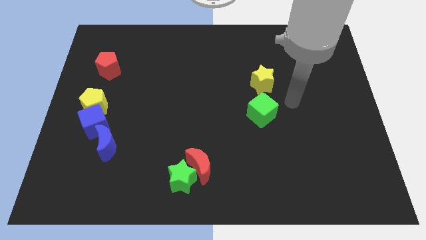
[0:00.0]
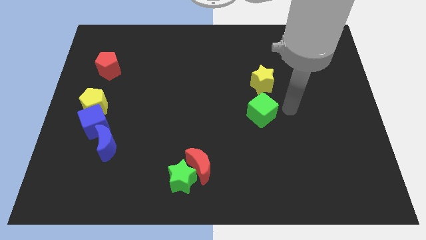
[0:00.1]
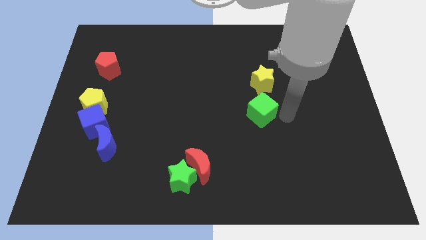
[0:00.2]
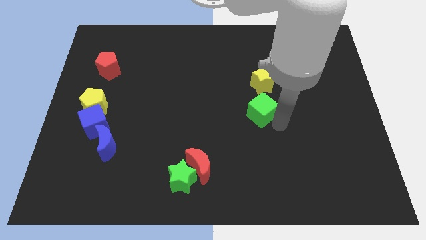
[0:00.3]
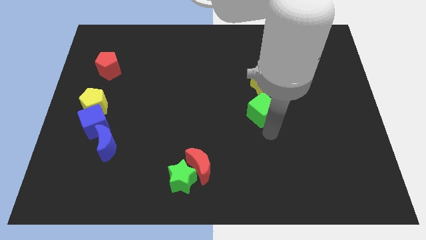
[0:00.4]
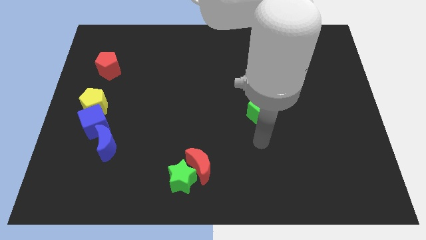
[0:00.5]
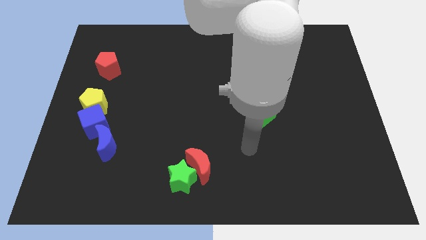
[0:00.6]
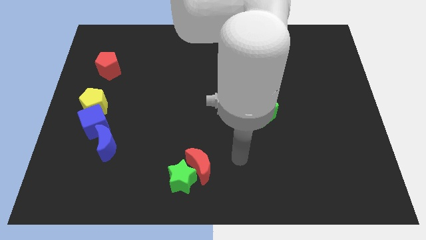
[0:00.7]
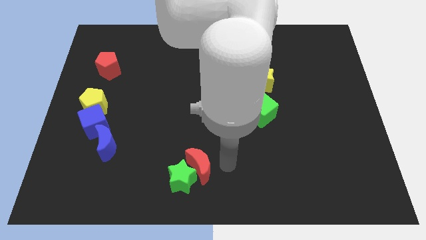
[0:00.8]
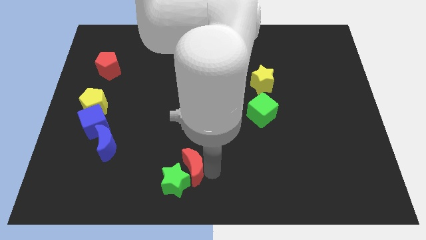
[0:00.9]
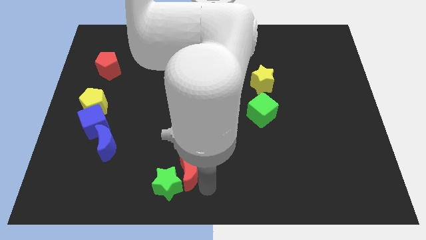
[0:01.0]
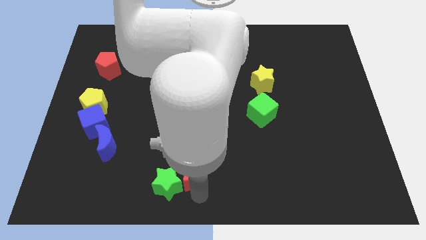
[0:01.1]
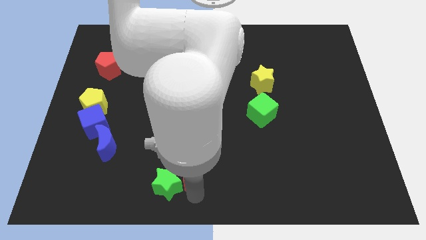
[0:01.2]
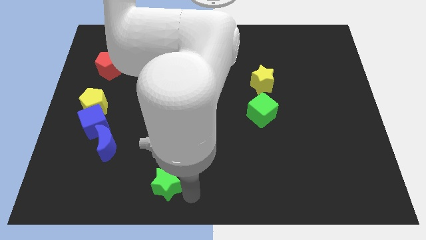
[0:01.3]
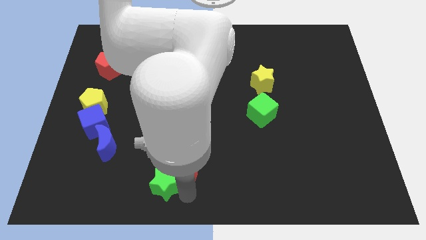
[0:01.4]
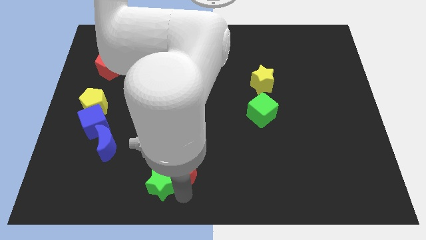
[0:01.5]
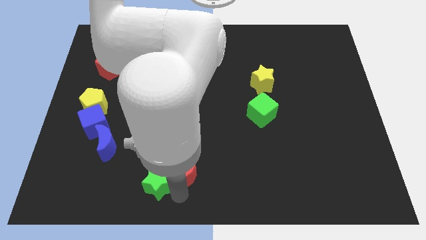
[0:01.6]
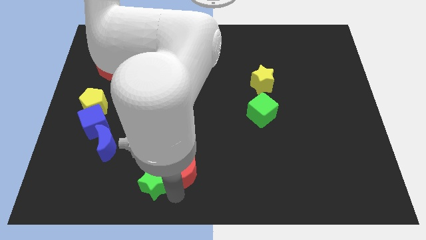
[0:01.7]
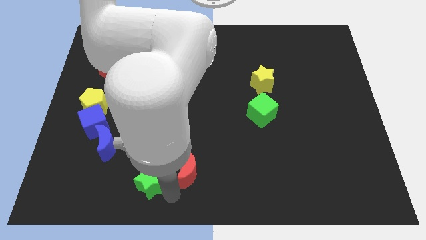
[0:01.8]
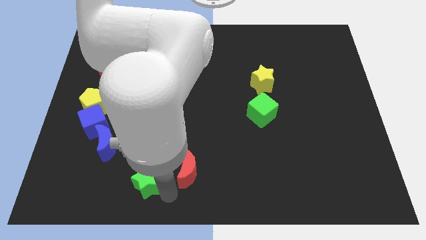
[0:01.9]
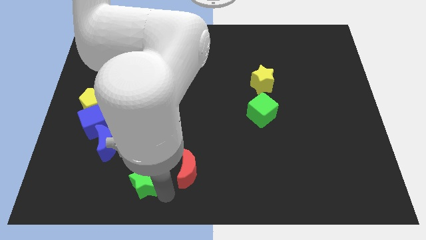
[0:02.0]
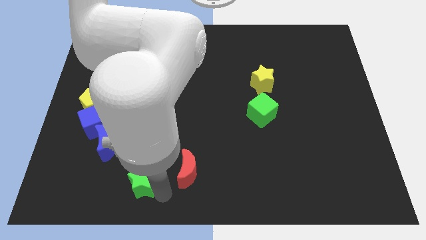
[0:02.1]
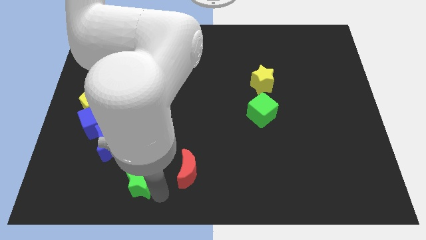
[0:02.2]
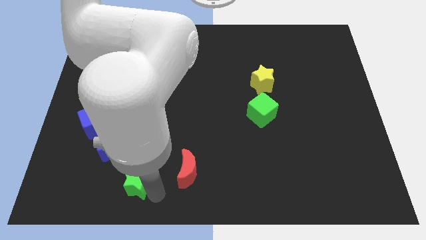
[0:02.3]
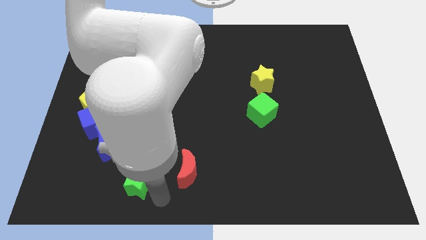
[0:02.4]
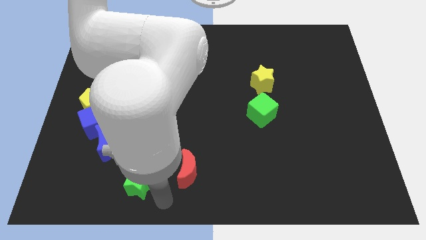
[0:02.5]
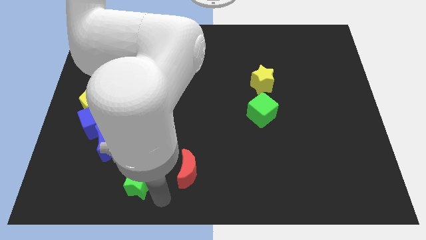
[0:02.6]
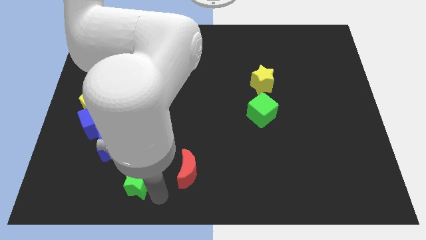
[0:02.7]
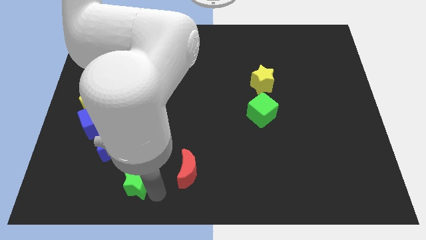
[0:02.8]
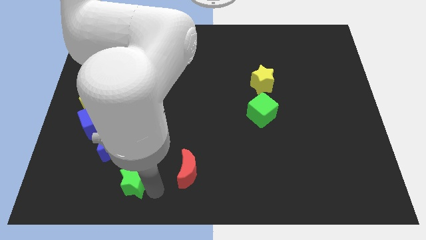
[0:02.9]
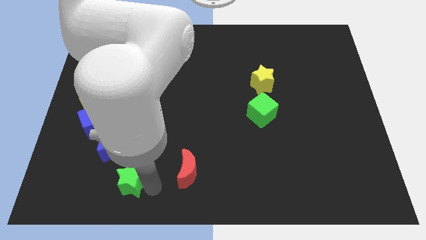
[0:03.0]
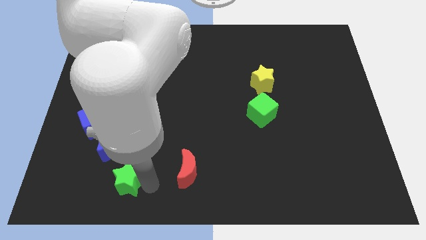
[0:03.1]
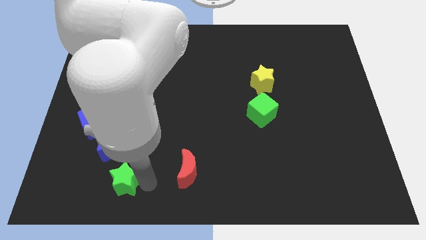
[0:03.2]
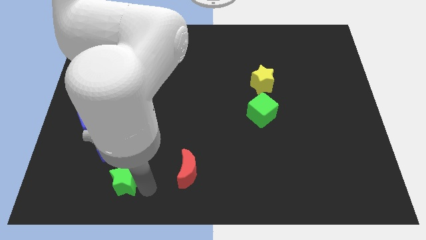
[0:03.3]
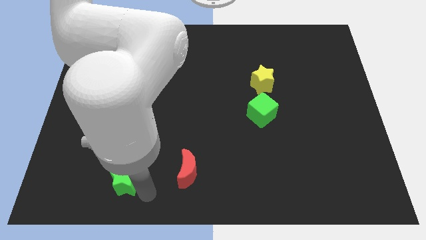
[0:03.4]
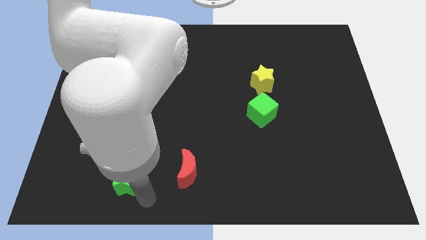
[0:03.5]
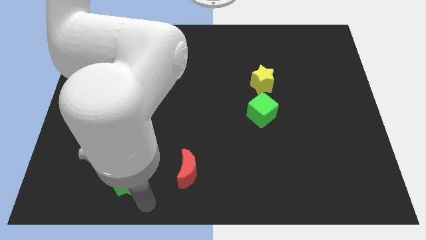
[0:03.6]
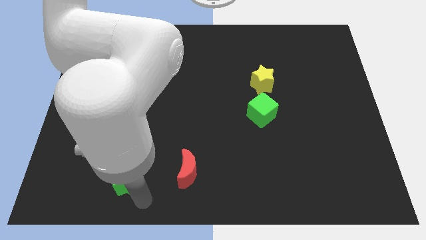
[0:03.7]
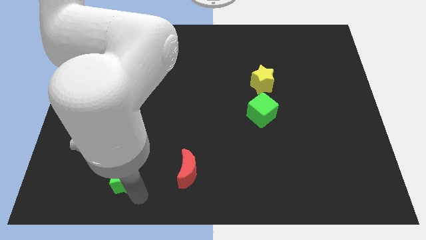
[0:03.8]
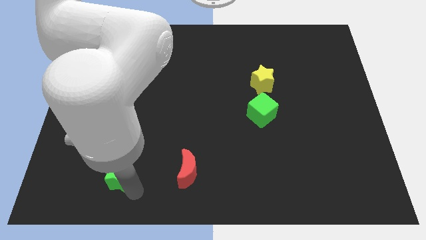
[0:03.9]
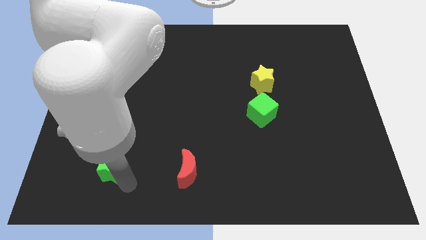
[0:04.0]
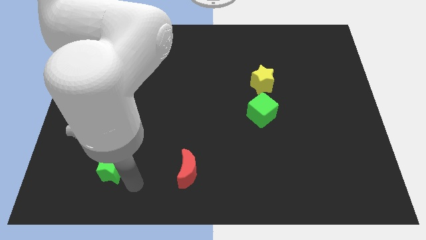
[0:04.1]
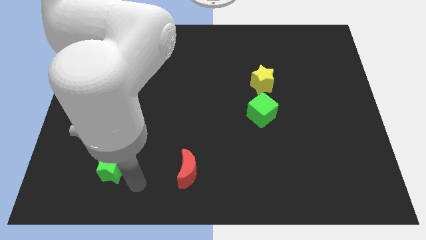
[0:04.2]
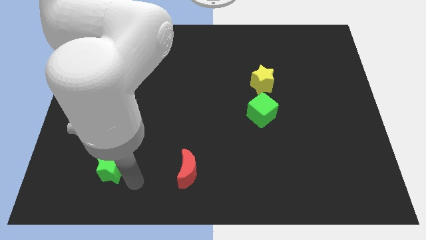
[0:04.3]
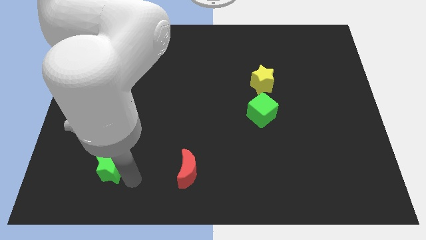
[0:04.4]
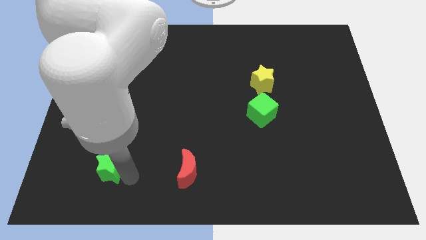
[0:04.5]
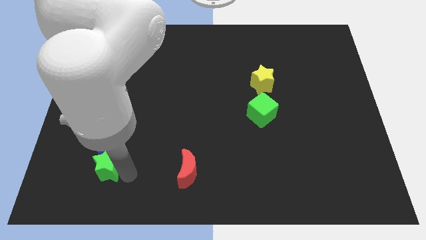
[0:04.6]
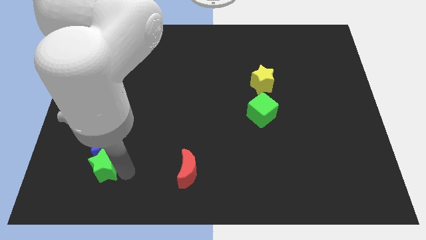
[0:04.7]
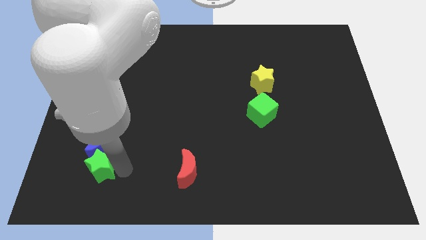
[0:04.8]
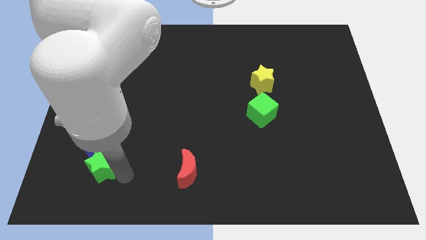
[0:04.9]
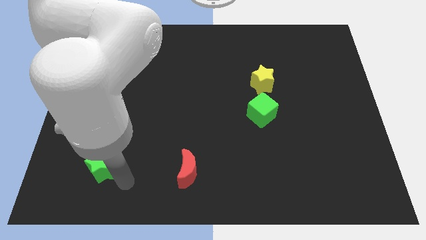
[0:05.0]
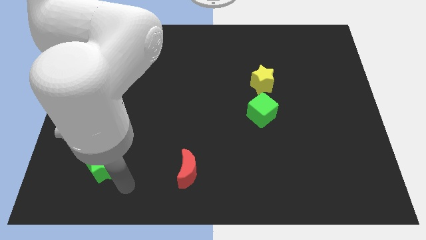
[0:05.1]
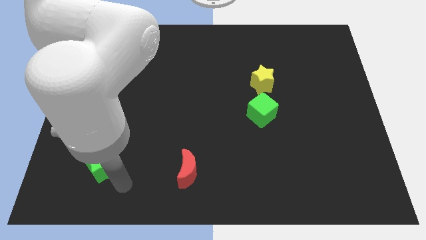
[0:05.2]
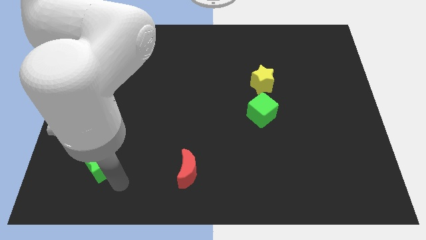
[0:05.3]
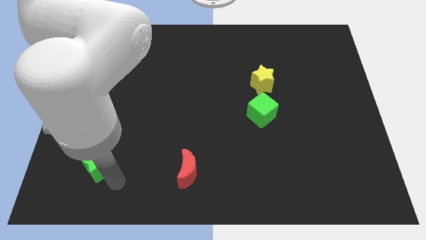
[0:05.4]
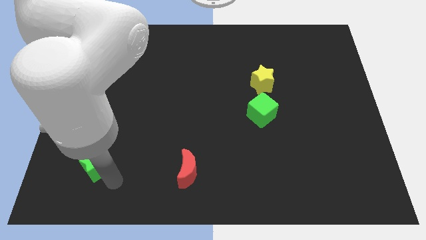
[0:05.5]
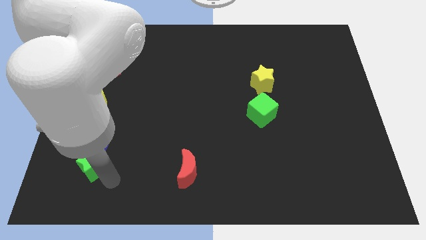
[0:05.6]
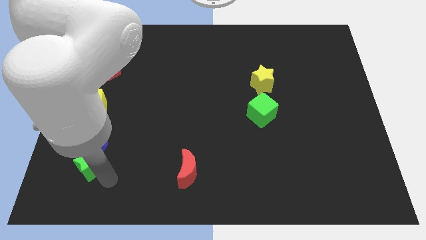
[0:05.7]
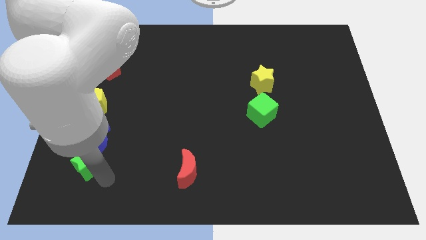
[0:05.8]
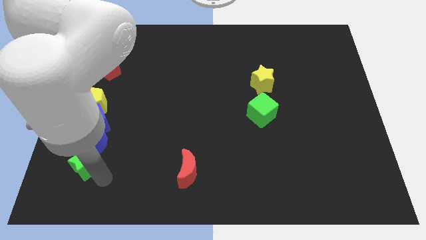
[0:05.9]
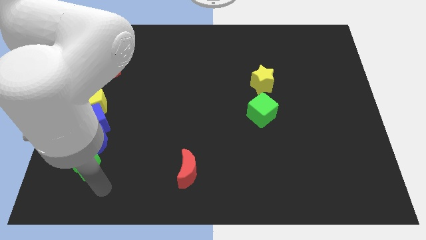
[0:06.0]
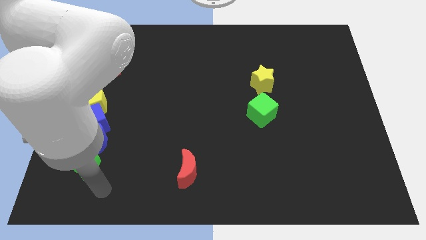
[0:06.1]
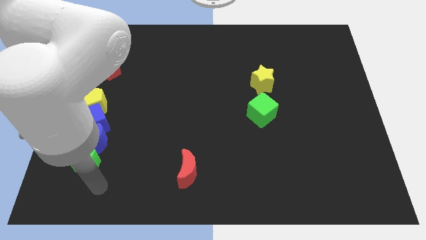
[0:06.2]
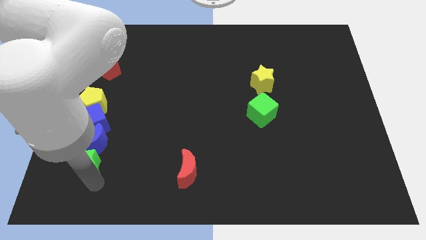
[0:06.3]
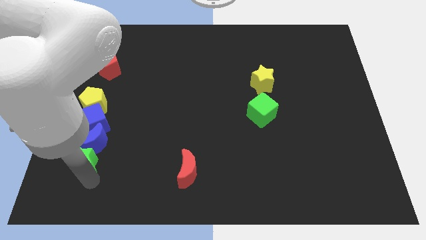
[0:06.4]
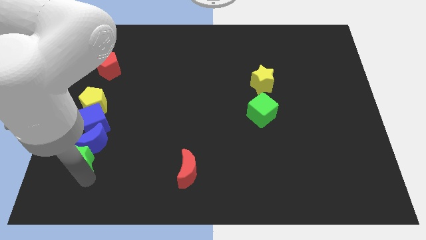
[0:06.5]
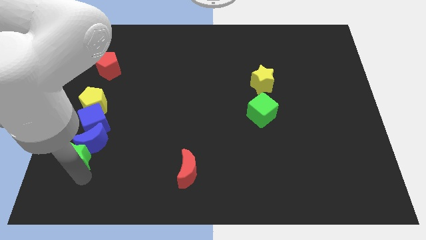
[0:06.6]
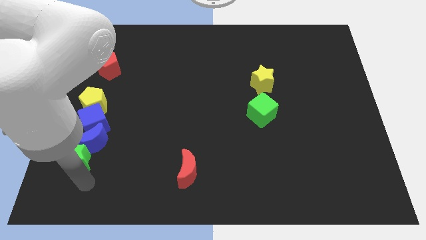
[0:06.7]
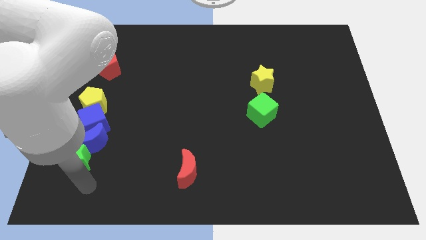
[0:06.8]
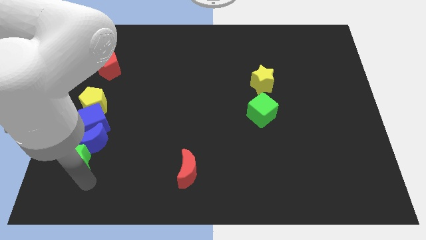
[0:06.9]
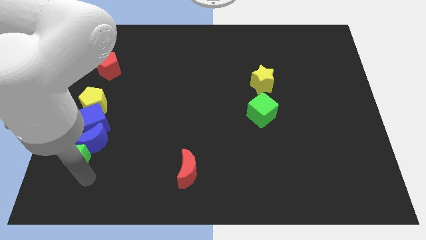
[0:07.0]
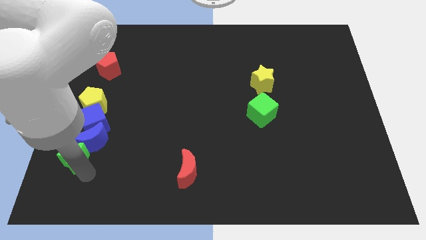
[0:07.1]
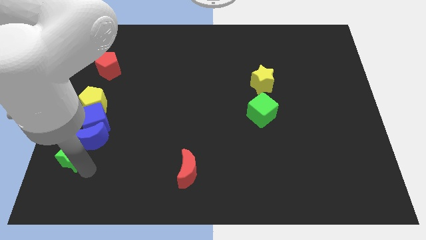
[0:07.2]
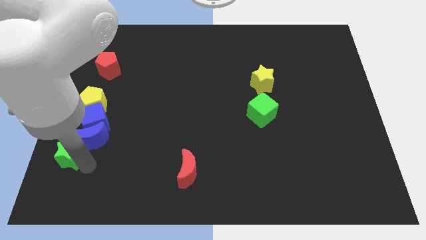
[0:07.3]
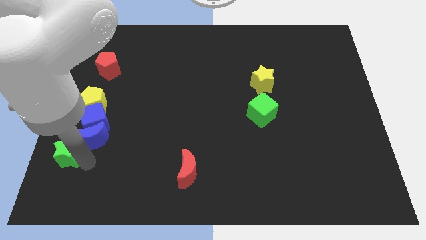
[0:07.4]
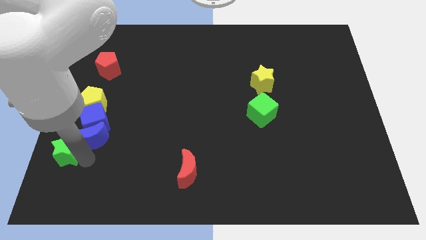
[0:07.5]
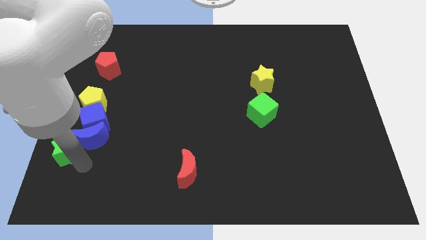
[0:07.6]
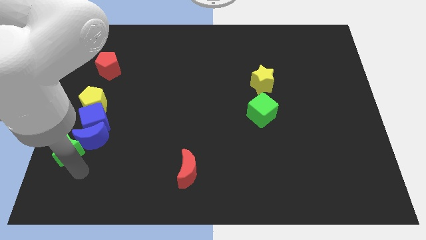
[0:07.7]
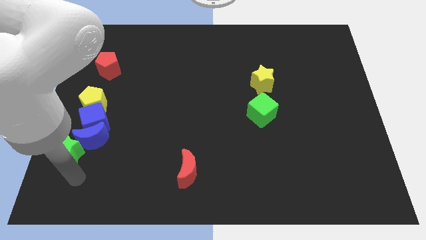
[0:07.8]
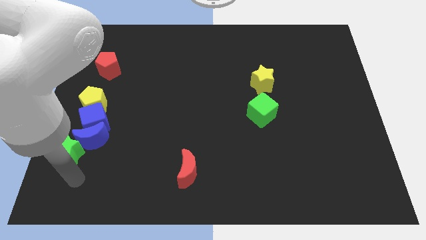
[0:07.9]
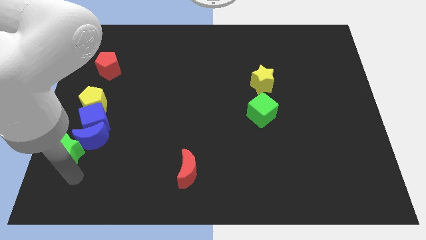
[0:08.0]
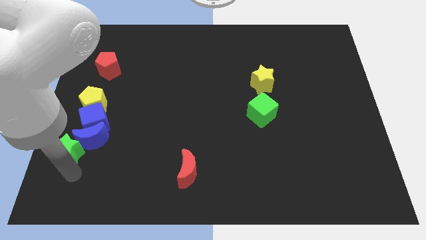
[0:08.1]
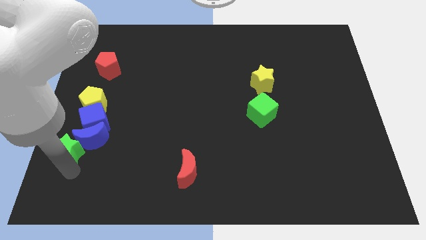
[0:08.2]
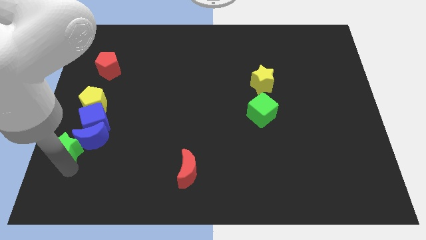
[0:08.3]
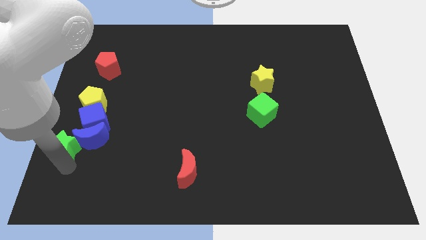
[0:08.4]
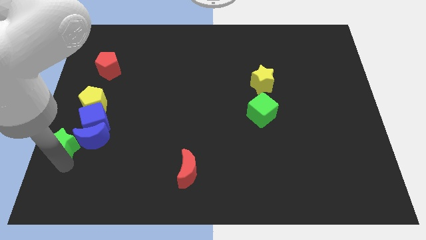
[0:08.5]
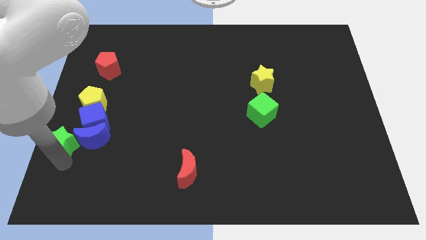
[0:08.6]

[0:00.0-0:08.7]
push the green star to the left side of the board
